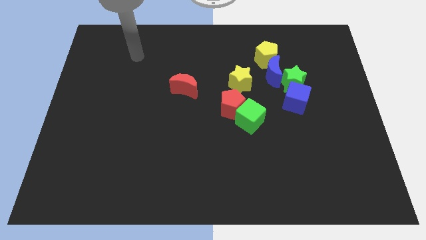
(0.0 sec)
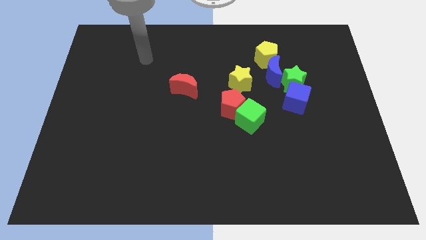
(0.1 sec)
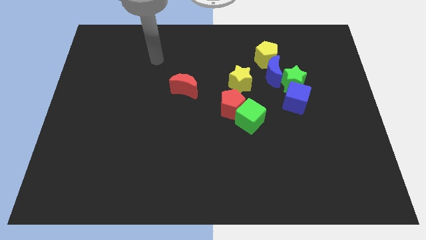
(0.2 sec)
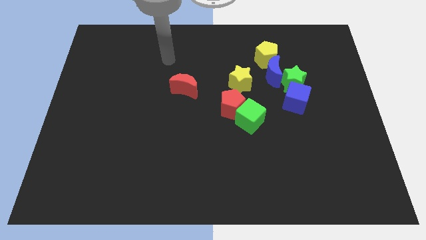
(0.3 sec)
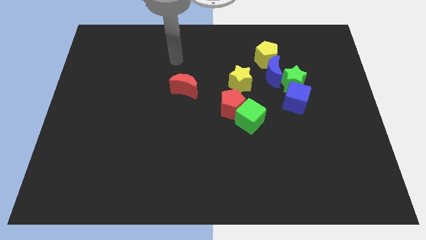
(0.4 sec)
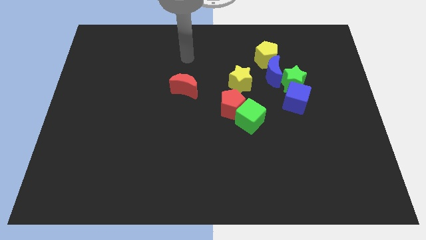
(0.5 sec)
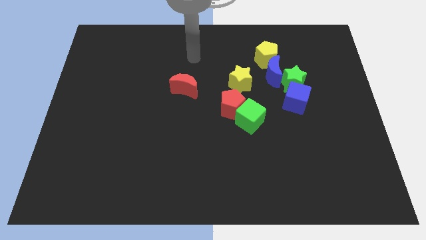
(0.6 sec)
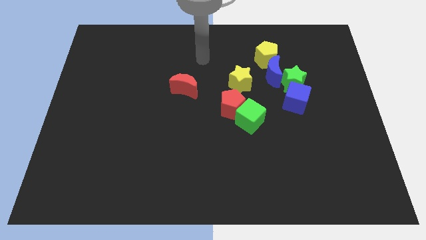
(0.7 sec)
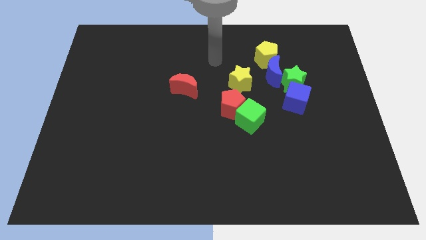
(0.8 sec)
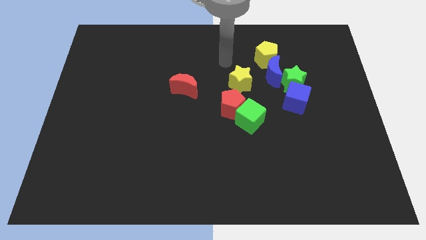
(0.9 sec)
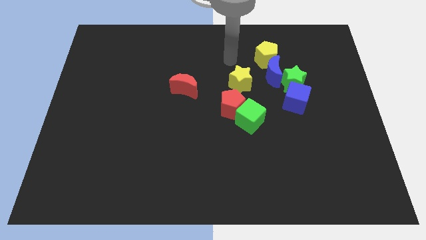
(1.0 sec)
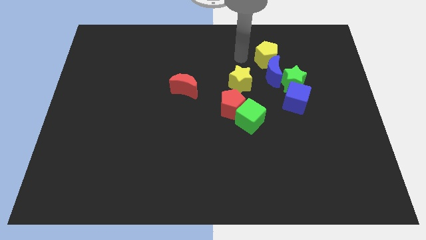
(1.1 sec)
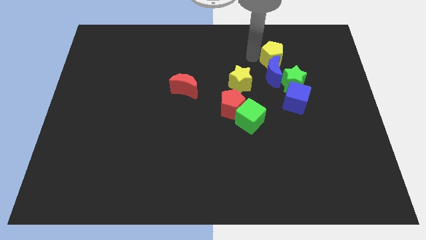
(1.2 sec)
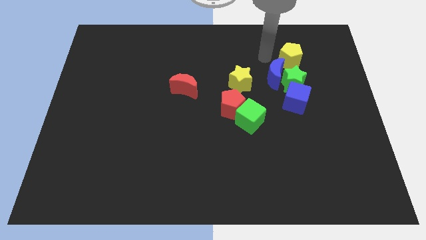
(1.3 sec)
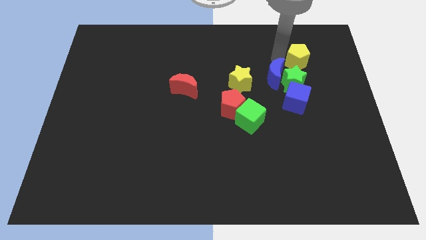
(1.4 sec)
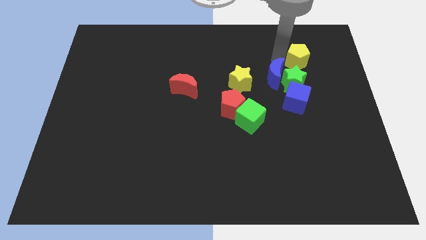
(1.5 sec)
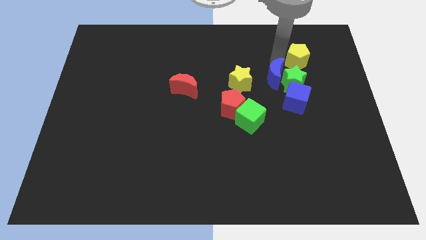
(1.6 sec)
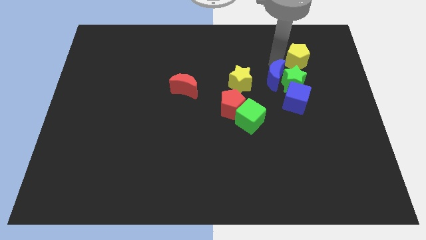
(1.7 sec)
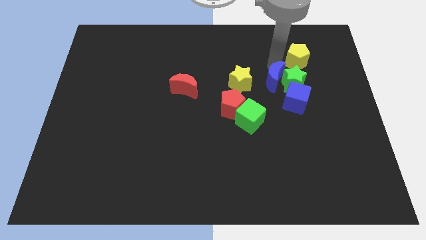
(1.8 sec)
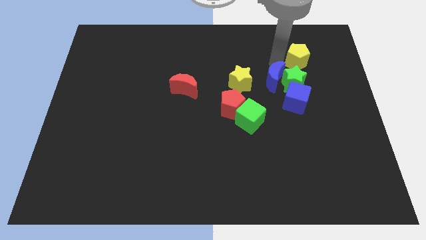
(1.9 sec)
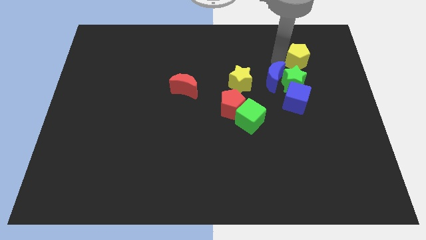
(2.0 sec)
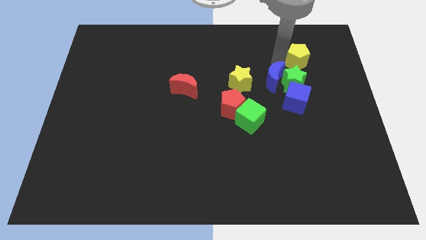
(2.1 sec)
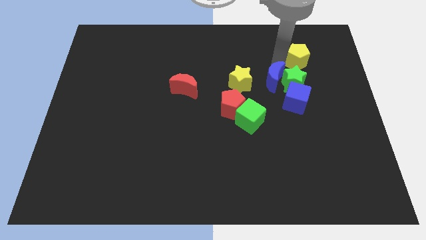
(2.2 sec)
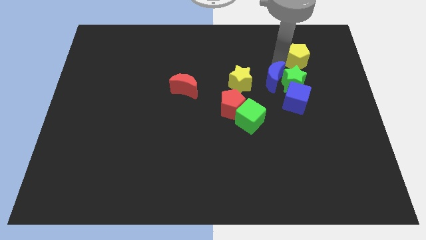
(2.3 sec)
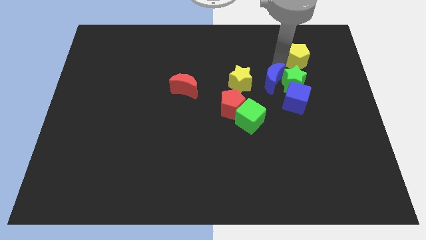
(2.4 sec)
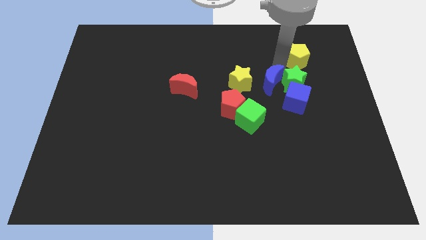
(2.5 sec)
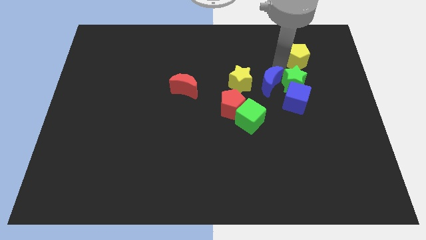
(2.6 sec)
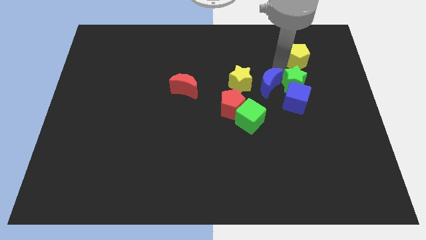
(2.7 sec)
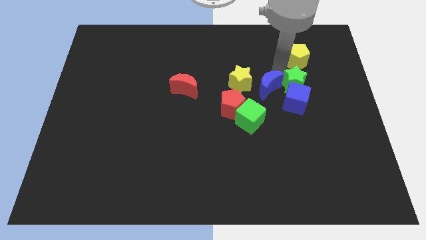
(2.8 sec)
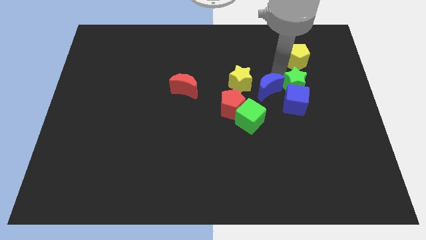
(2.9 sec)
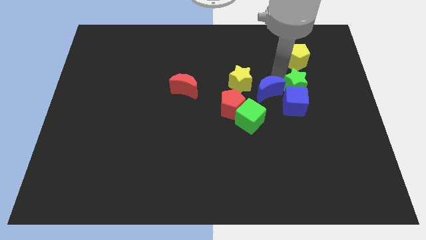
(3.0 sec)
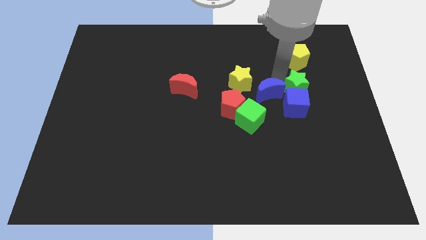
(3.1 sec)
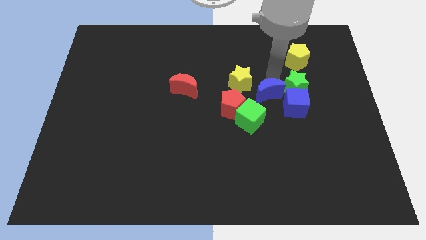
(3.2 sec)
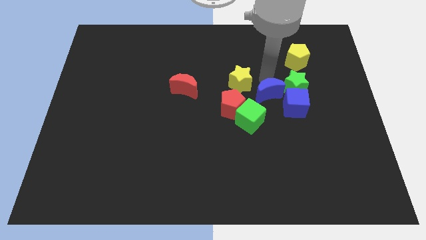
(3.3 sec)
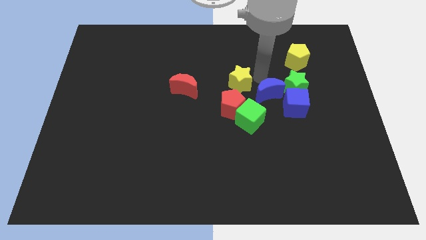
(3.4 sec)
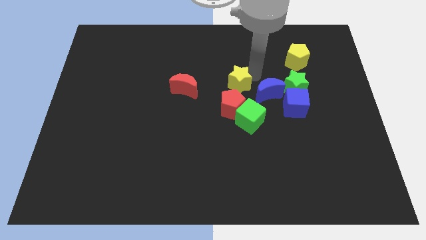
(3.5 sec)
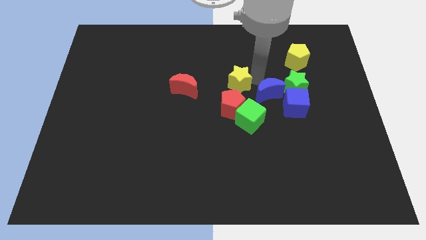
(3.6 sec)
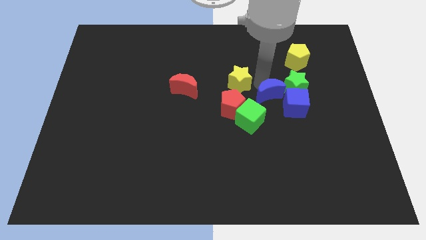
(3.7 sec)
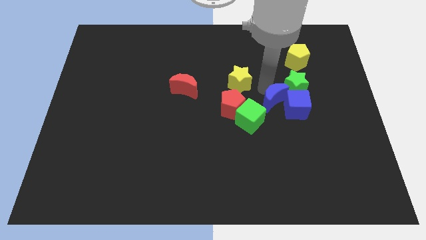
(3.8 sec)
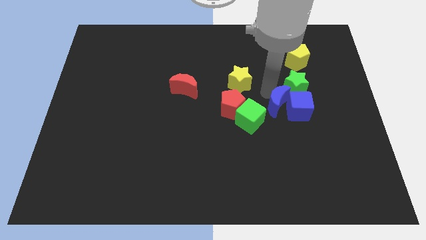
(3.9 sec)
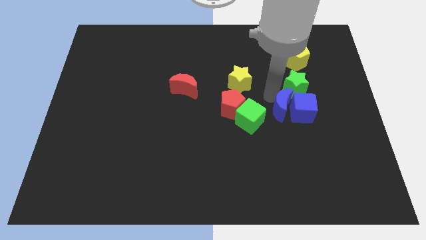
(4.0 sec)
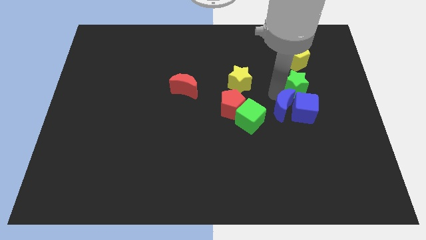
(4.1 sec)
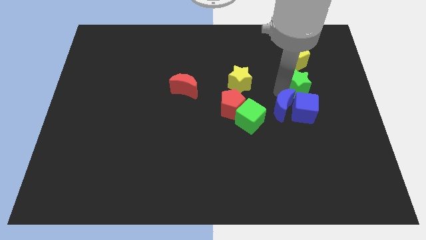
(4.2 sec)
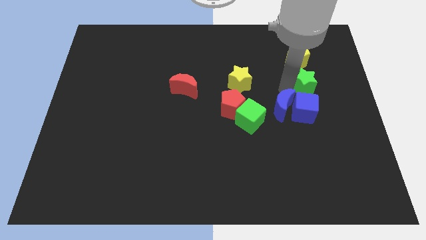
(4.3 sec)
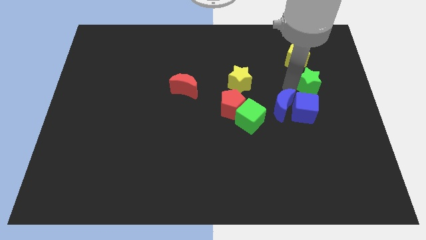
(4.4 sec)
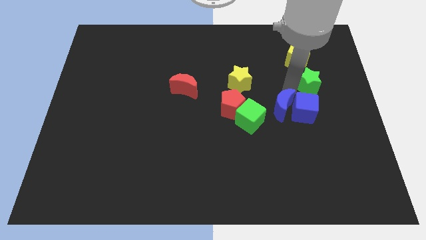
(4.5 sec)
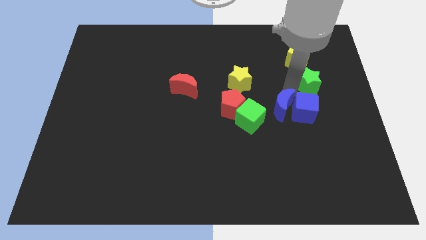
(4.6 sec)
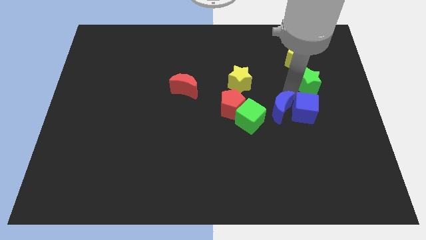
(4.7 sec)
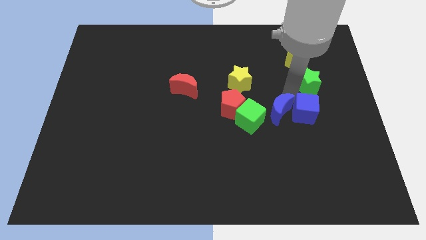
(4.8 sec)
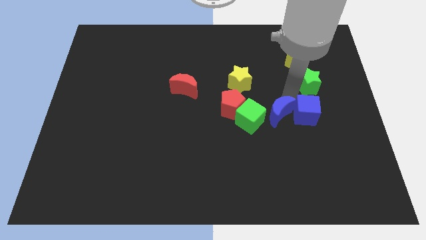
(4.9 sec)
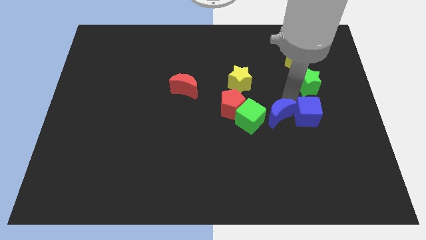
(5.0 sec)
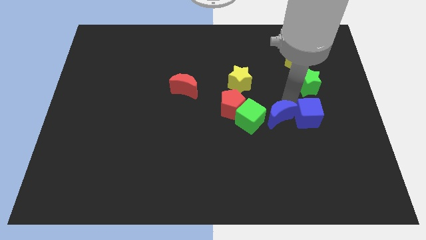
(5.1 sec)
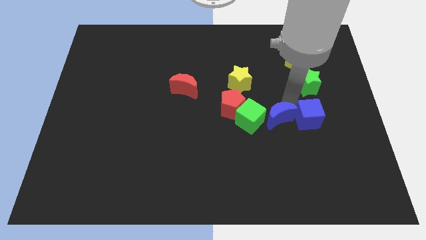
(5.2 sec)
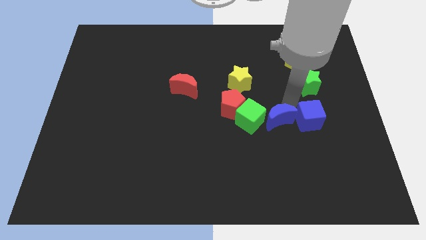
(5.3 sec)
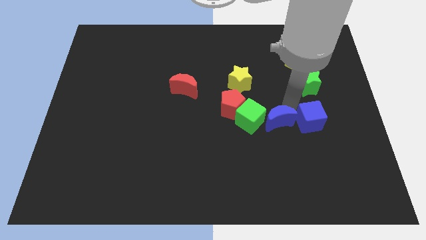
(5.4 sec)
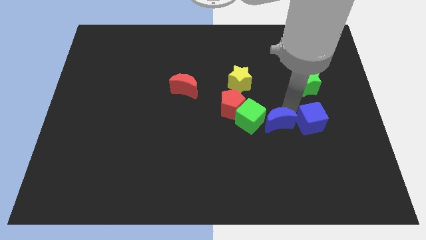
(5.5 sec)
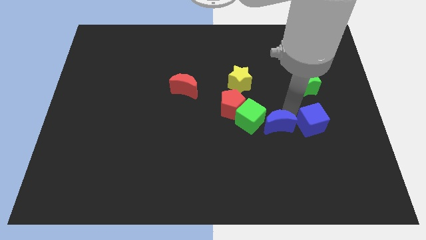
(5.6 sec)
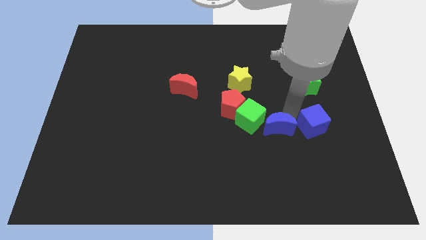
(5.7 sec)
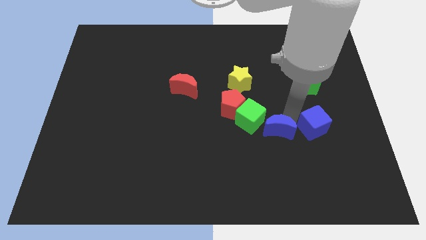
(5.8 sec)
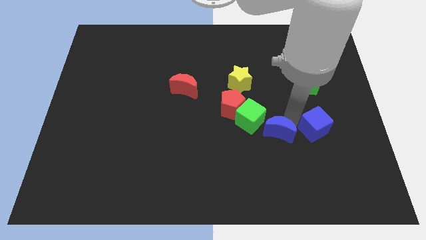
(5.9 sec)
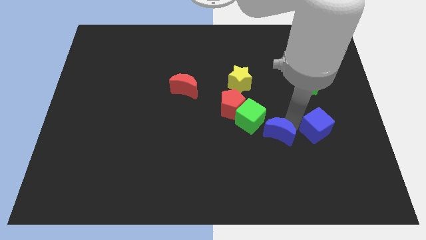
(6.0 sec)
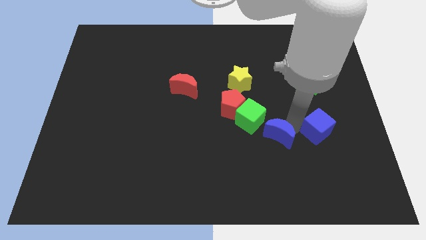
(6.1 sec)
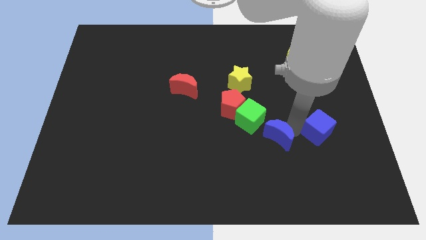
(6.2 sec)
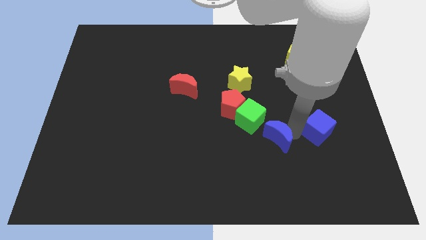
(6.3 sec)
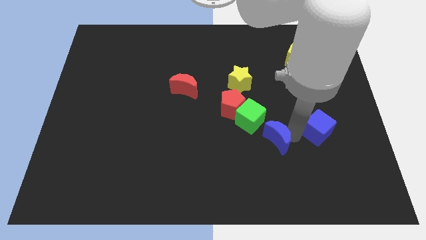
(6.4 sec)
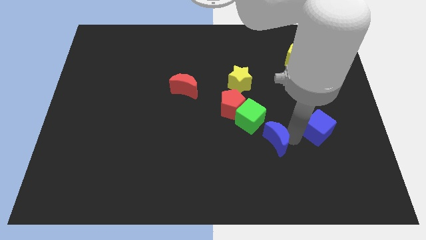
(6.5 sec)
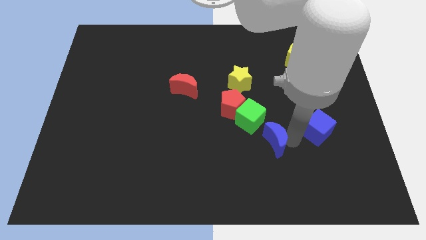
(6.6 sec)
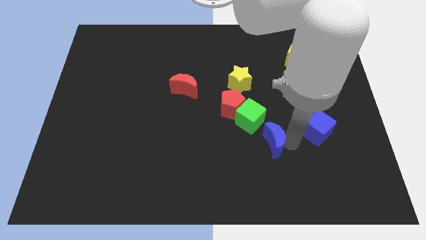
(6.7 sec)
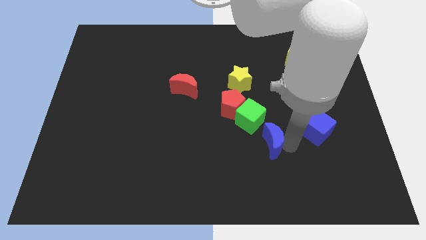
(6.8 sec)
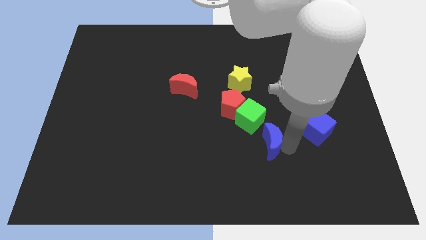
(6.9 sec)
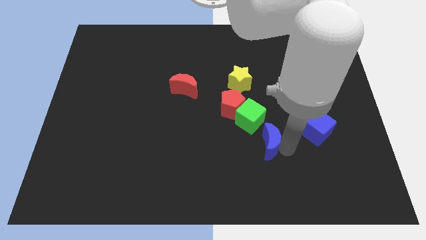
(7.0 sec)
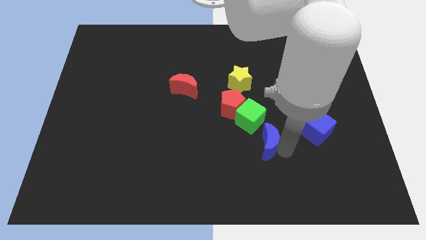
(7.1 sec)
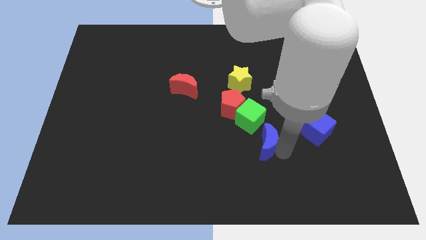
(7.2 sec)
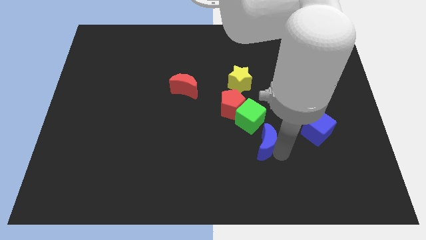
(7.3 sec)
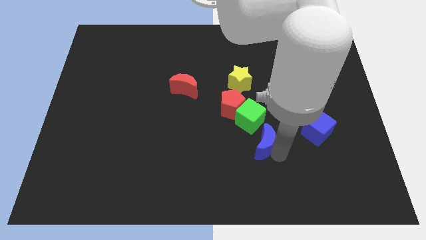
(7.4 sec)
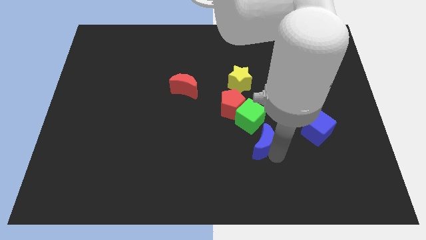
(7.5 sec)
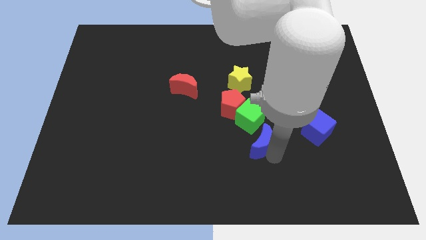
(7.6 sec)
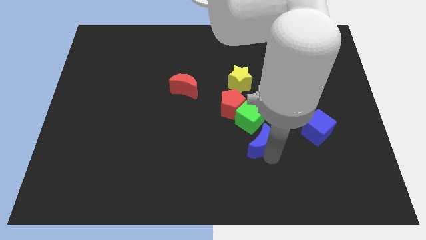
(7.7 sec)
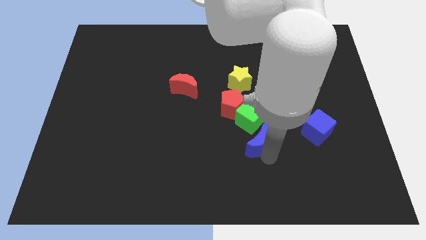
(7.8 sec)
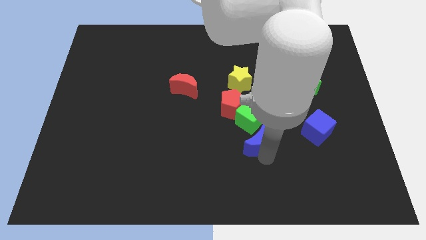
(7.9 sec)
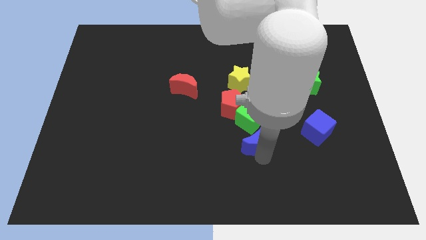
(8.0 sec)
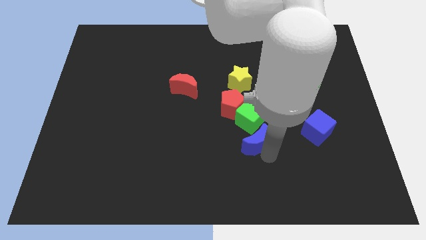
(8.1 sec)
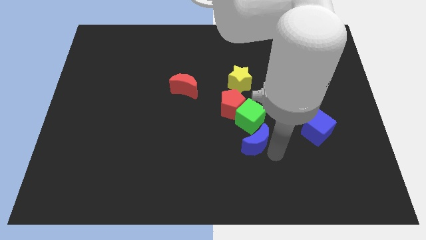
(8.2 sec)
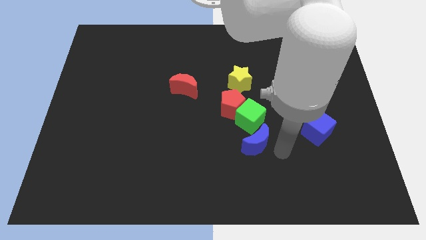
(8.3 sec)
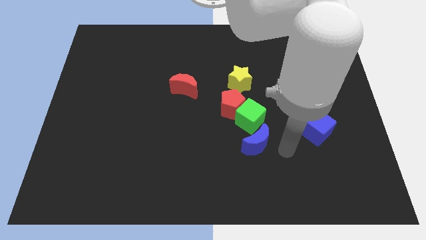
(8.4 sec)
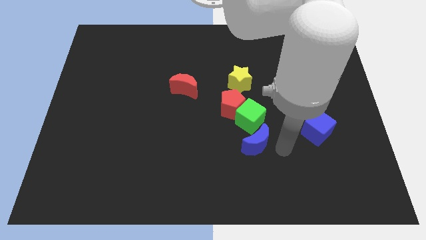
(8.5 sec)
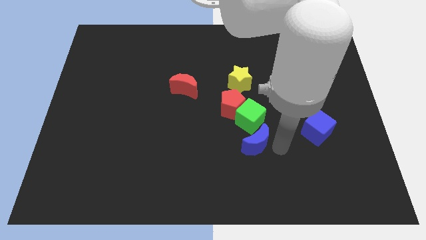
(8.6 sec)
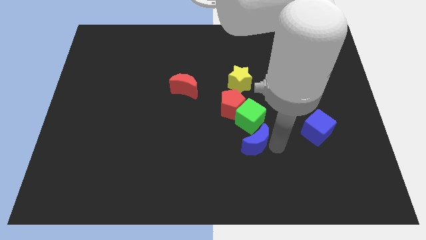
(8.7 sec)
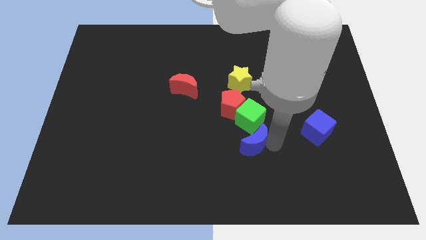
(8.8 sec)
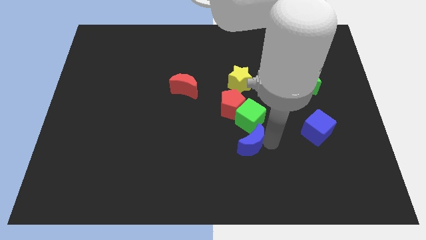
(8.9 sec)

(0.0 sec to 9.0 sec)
push the blue moon diagonally down and to the left of the green cube
